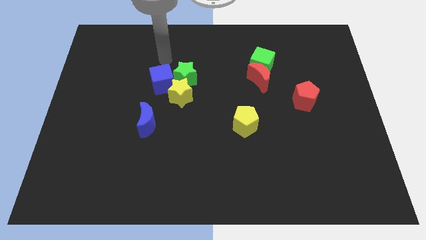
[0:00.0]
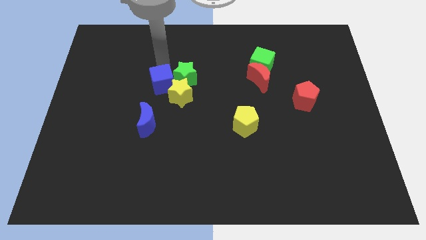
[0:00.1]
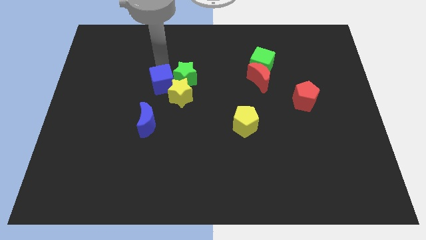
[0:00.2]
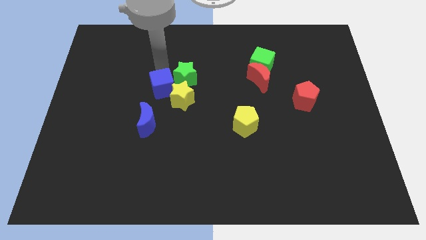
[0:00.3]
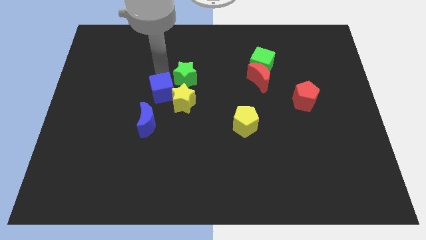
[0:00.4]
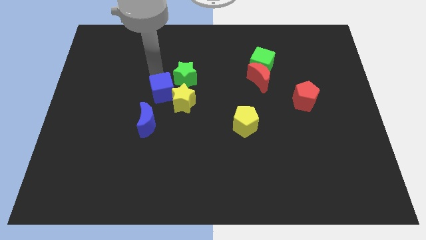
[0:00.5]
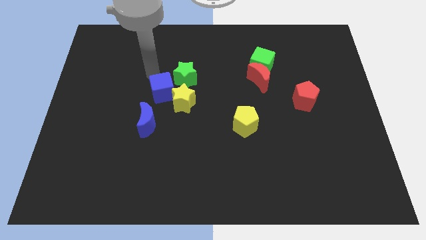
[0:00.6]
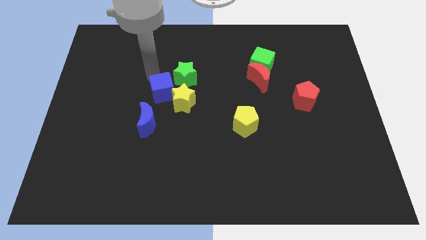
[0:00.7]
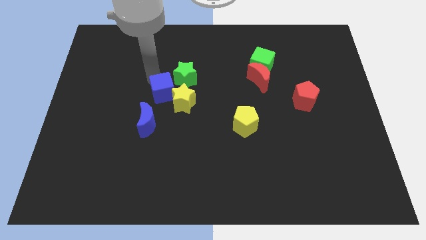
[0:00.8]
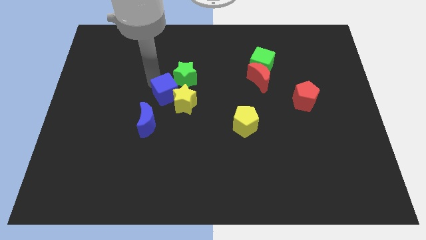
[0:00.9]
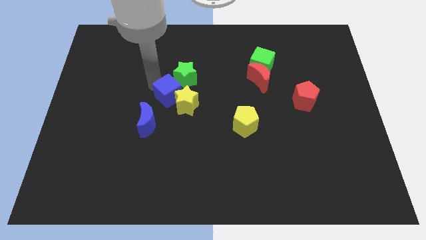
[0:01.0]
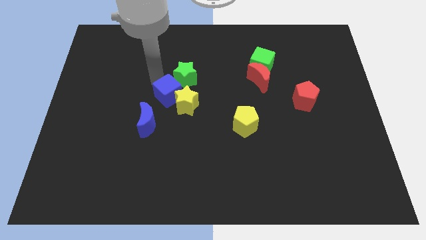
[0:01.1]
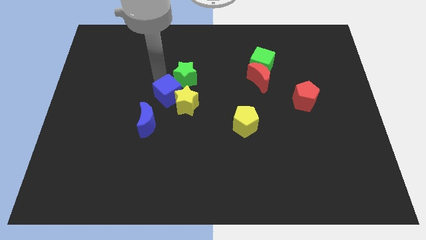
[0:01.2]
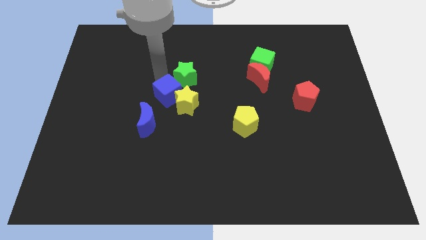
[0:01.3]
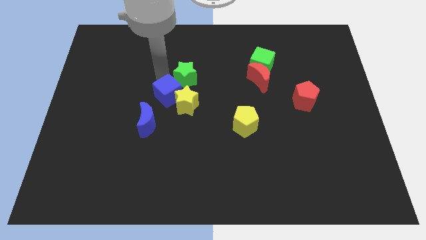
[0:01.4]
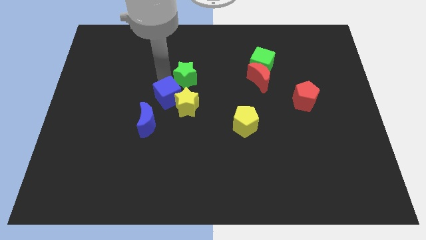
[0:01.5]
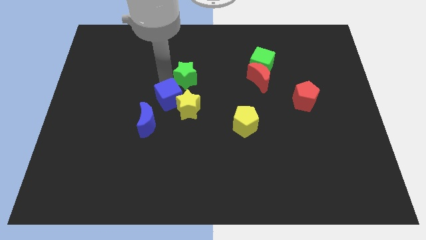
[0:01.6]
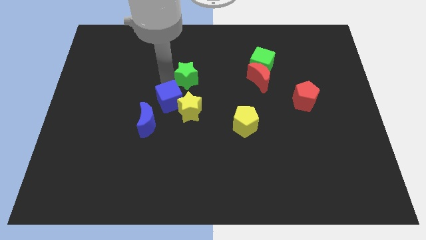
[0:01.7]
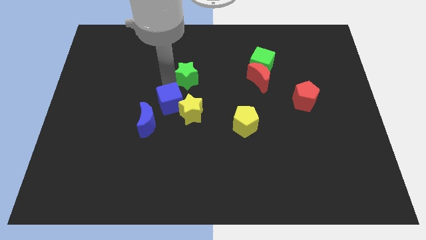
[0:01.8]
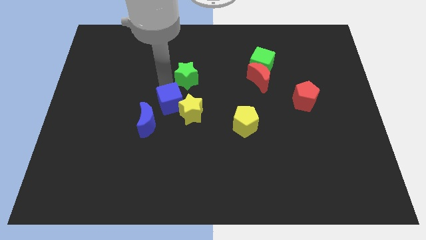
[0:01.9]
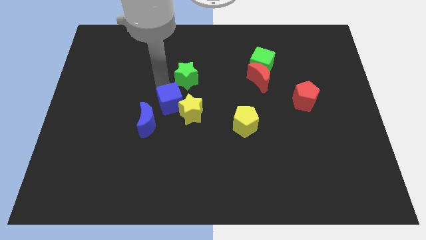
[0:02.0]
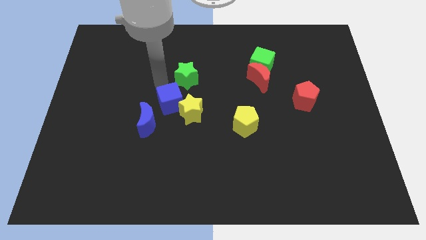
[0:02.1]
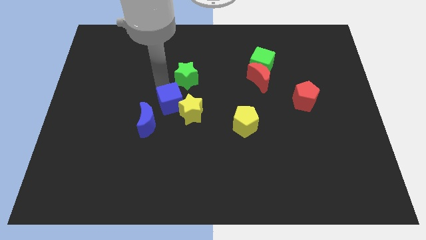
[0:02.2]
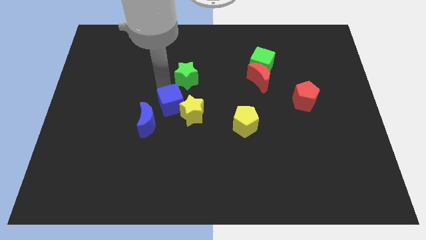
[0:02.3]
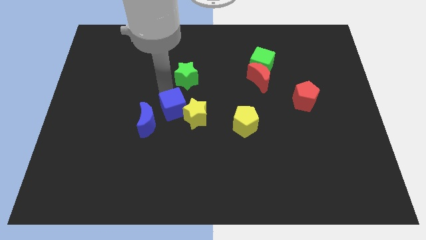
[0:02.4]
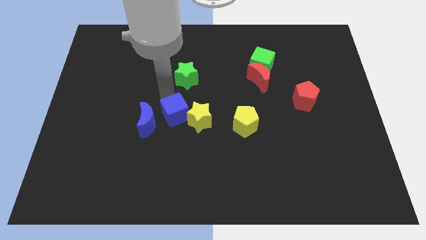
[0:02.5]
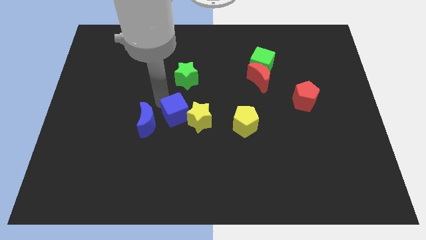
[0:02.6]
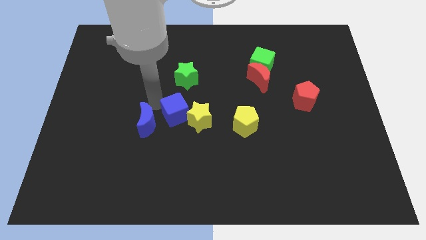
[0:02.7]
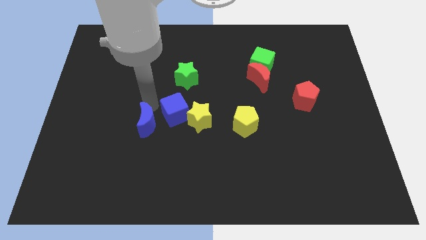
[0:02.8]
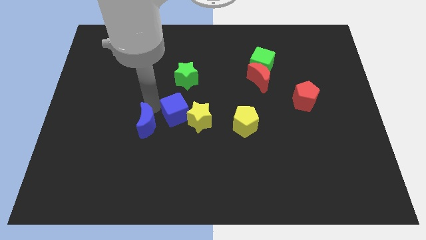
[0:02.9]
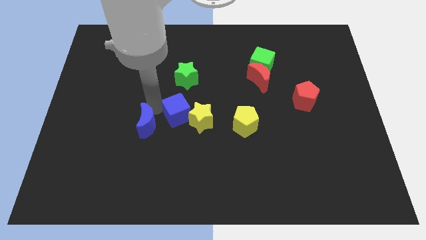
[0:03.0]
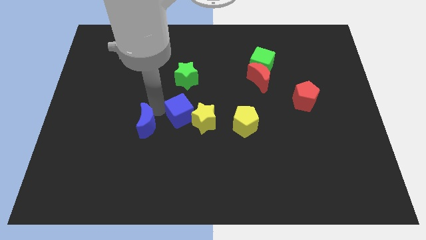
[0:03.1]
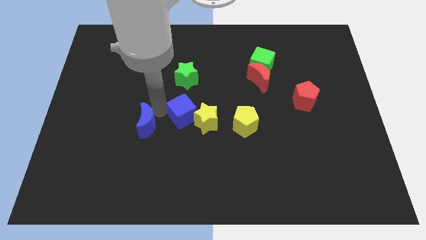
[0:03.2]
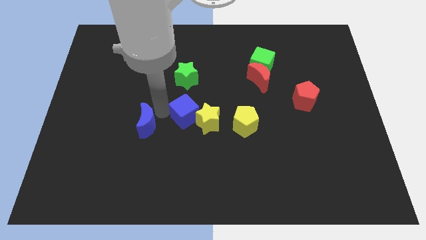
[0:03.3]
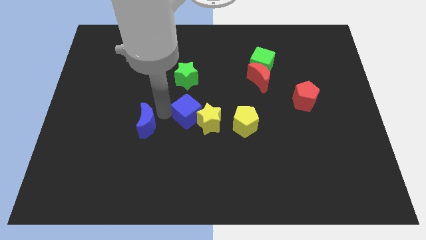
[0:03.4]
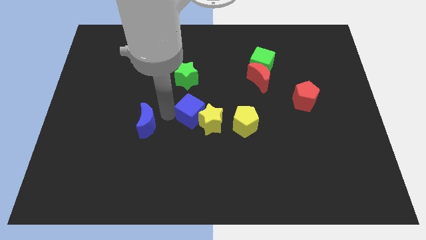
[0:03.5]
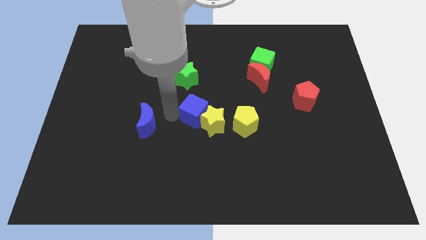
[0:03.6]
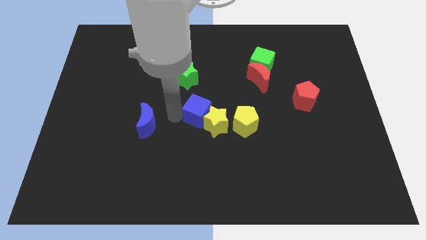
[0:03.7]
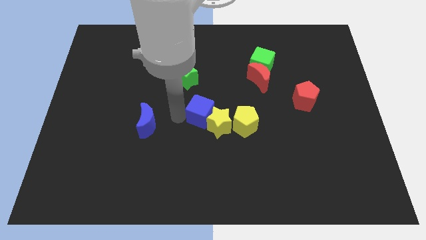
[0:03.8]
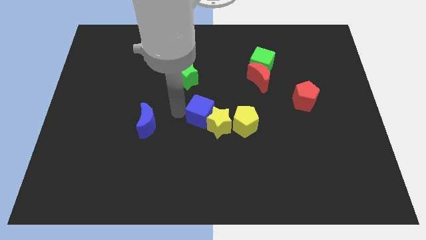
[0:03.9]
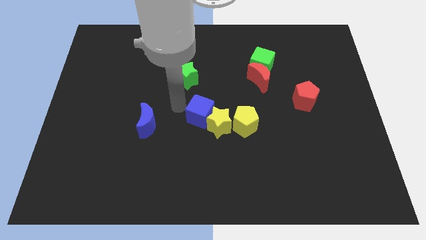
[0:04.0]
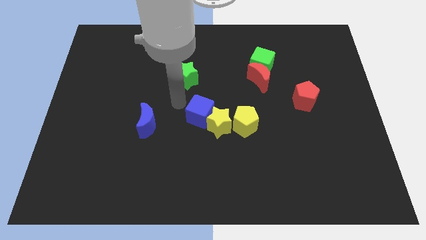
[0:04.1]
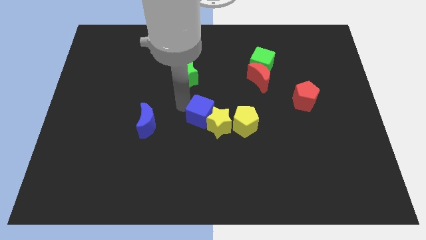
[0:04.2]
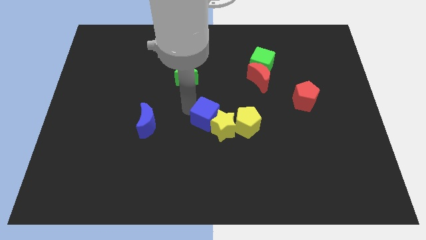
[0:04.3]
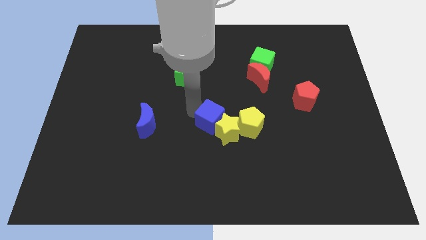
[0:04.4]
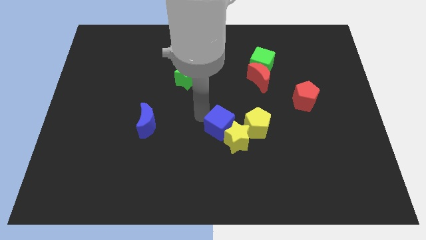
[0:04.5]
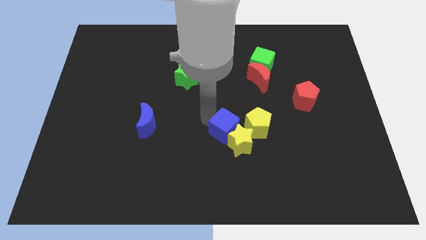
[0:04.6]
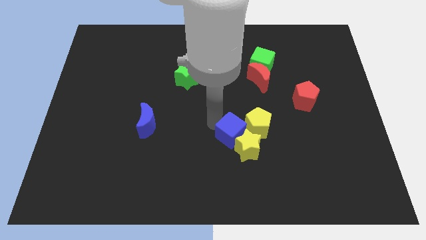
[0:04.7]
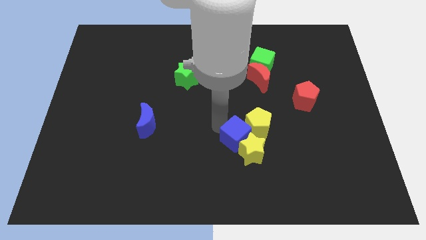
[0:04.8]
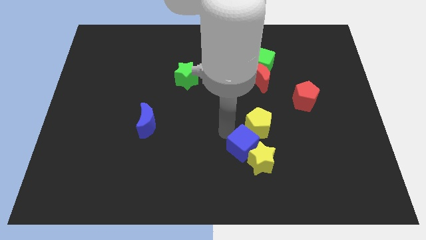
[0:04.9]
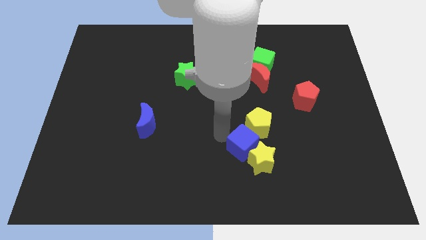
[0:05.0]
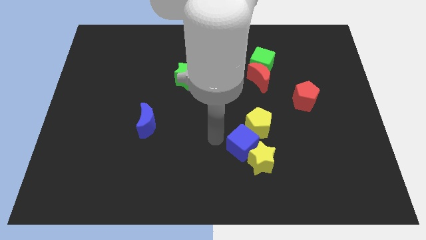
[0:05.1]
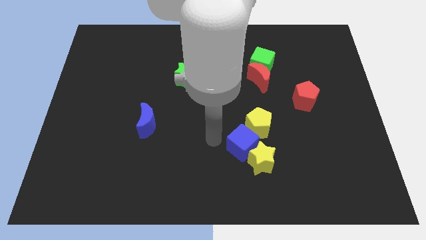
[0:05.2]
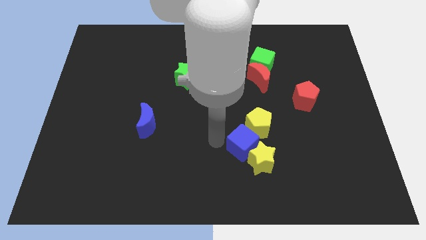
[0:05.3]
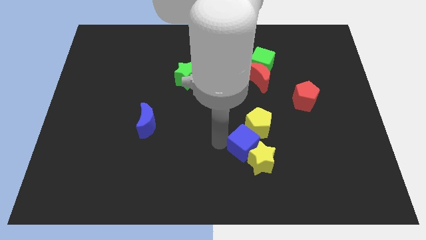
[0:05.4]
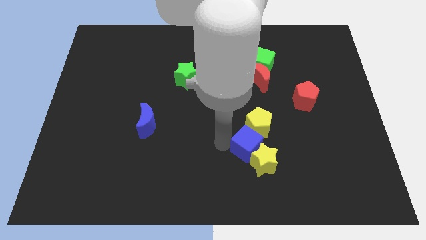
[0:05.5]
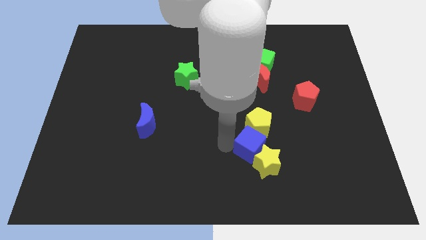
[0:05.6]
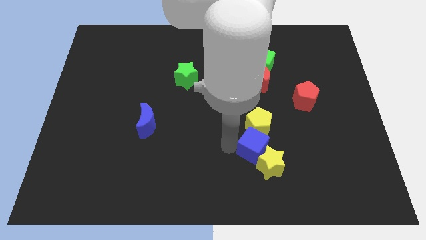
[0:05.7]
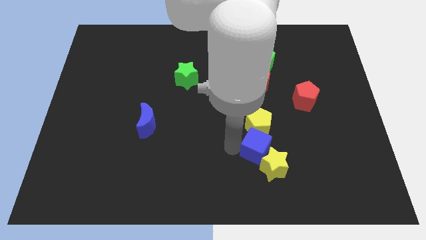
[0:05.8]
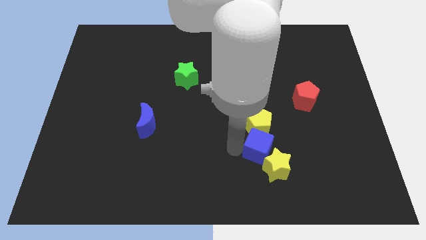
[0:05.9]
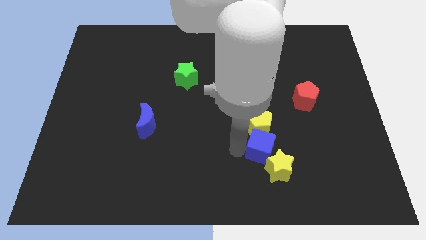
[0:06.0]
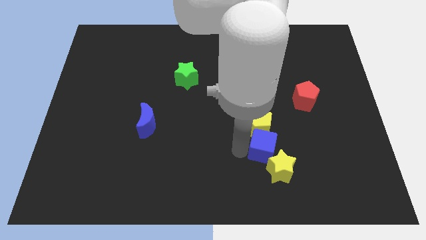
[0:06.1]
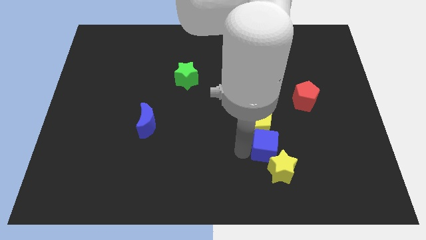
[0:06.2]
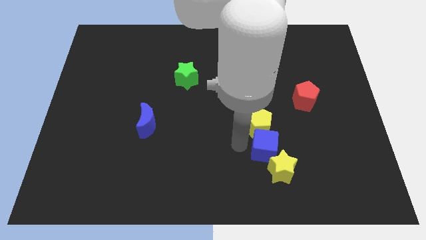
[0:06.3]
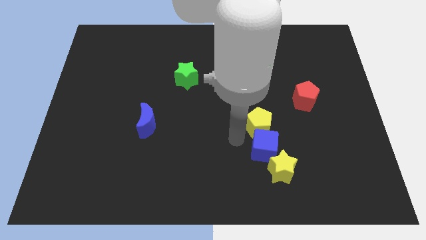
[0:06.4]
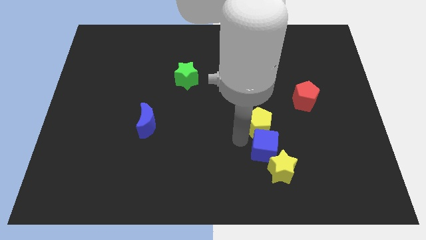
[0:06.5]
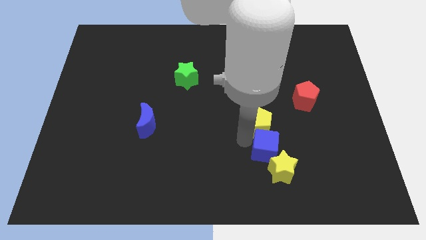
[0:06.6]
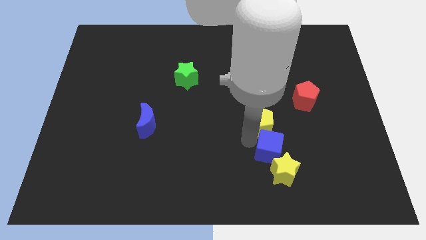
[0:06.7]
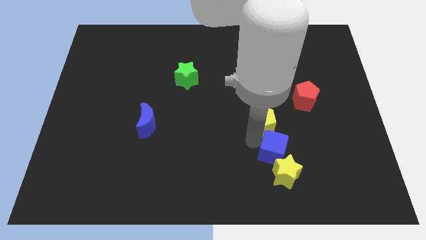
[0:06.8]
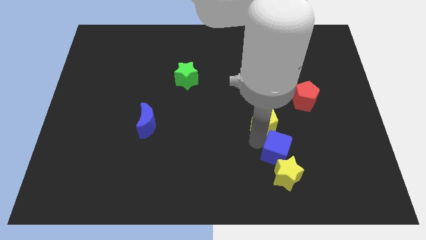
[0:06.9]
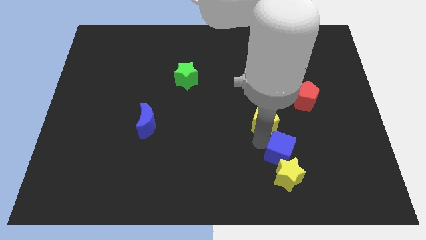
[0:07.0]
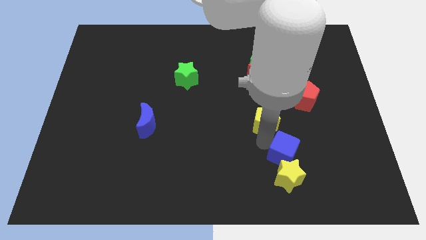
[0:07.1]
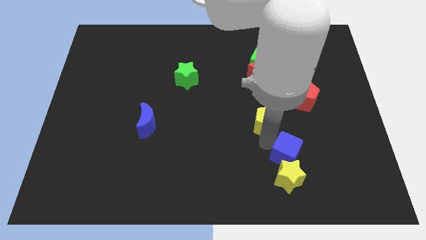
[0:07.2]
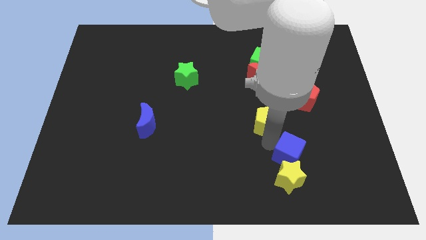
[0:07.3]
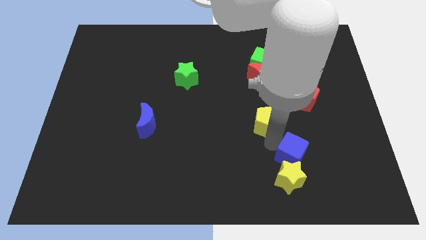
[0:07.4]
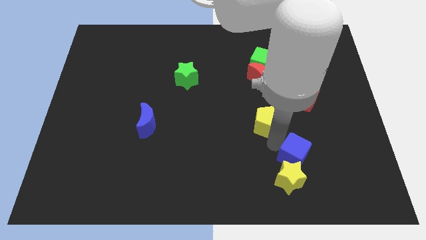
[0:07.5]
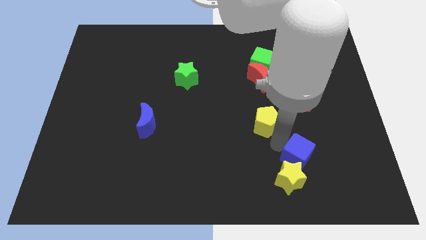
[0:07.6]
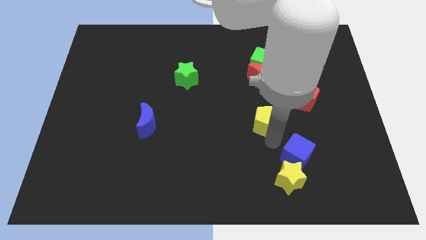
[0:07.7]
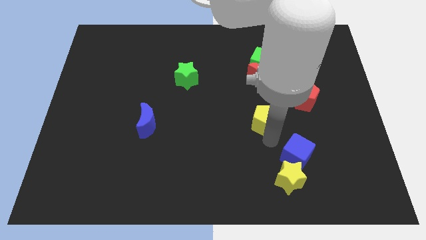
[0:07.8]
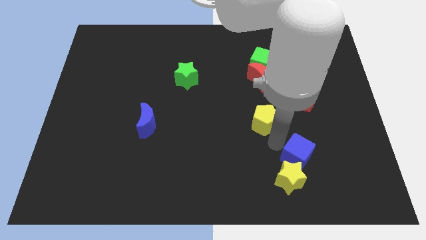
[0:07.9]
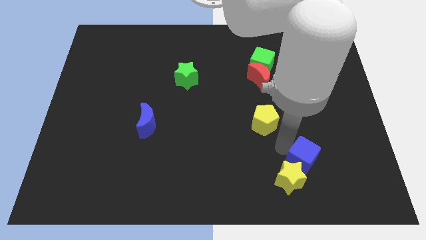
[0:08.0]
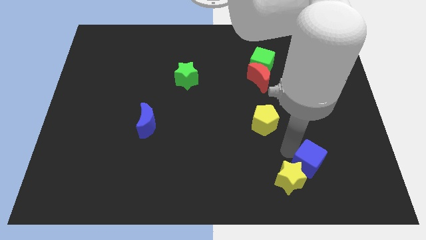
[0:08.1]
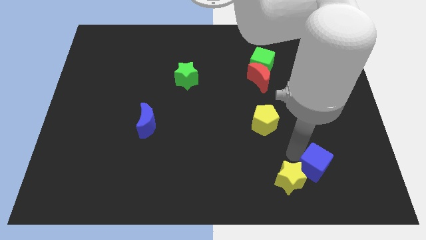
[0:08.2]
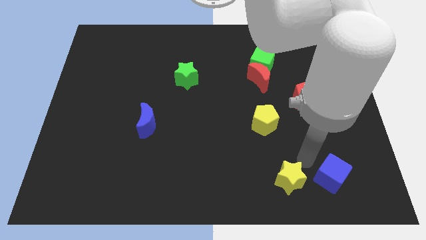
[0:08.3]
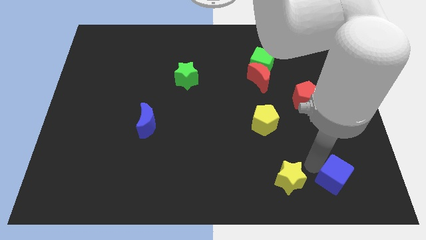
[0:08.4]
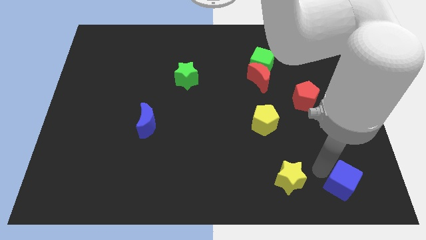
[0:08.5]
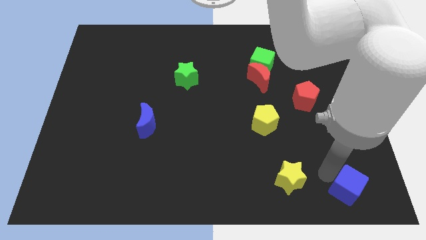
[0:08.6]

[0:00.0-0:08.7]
put the blue cube to the bottom right corner
